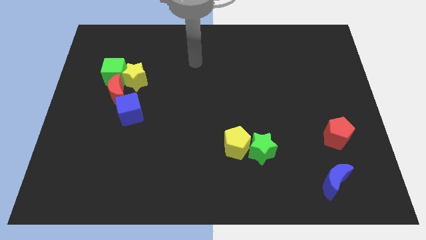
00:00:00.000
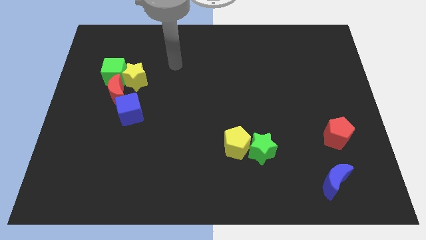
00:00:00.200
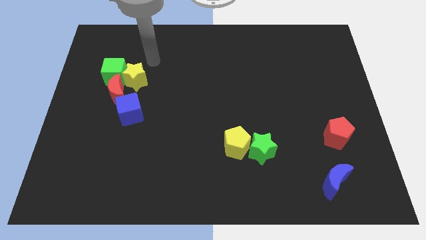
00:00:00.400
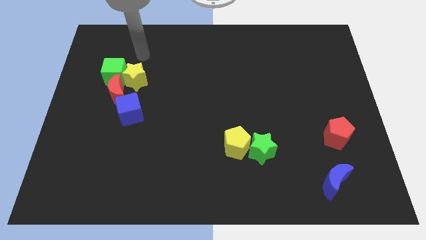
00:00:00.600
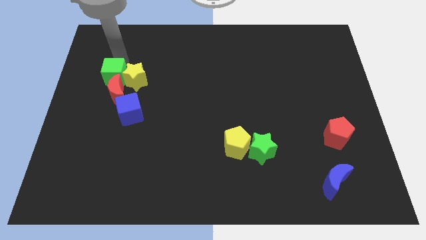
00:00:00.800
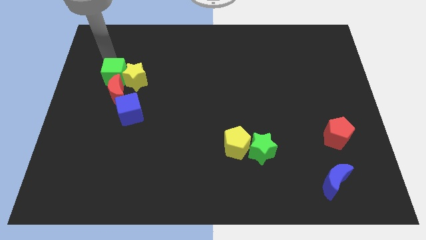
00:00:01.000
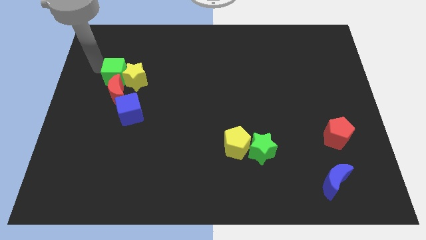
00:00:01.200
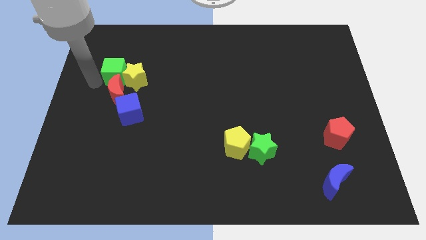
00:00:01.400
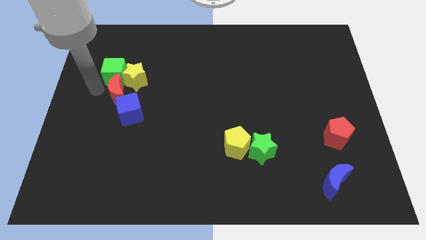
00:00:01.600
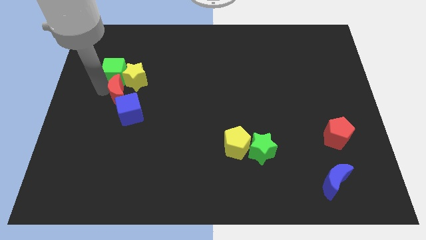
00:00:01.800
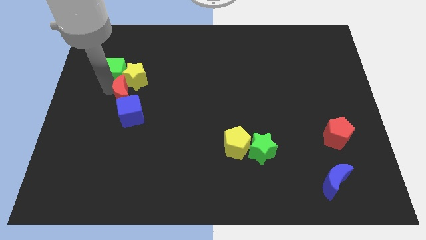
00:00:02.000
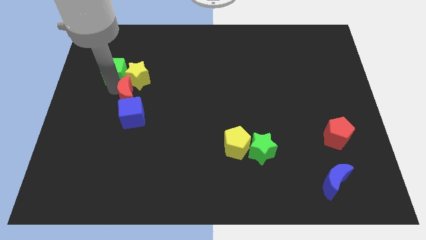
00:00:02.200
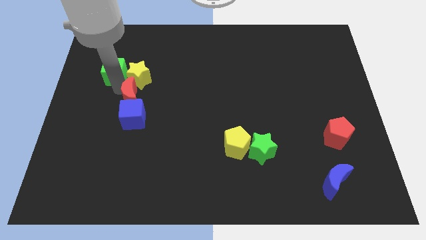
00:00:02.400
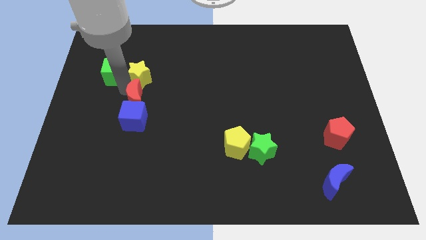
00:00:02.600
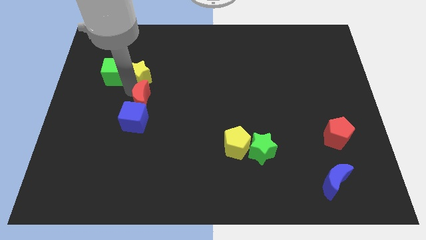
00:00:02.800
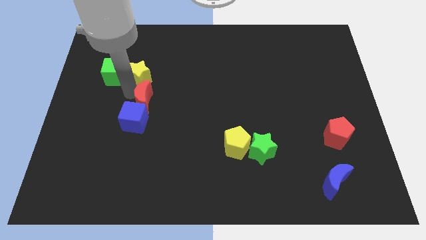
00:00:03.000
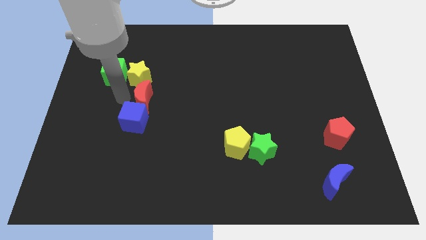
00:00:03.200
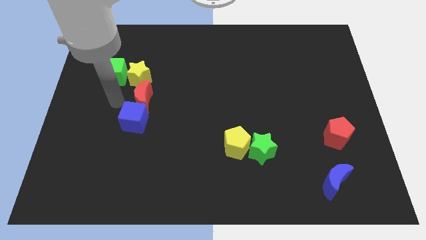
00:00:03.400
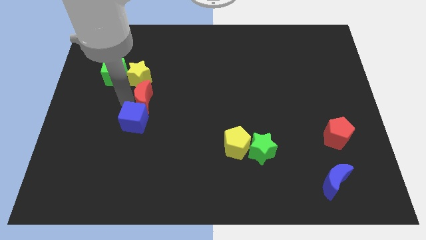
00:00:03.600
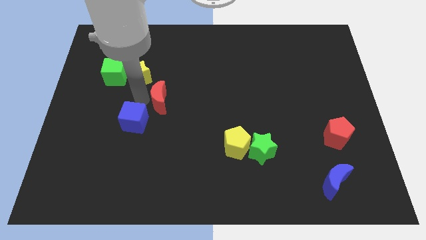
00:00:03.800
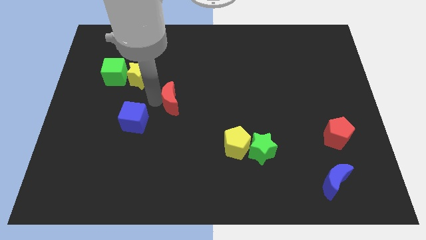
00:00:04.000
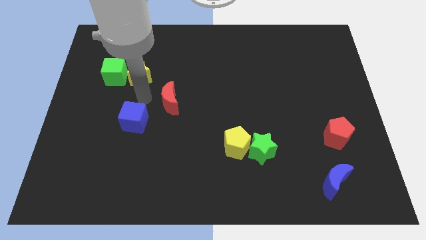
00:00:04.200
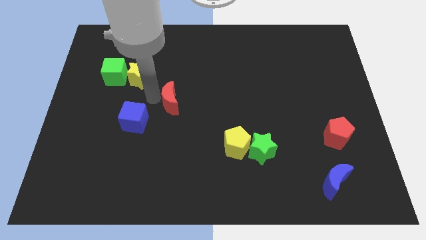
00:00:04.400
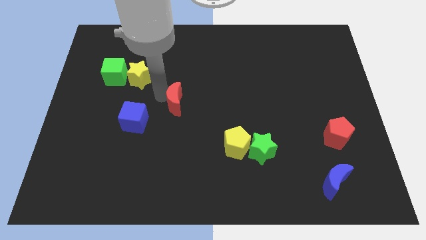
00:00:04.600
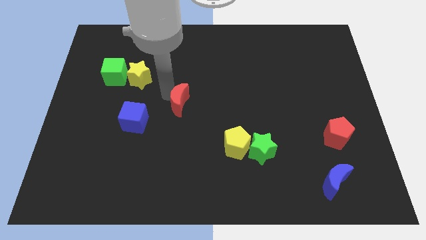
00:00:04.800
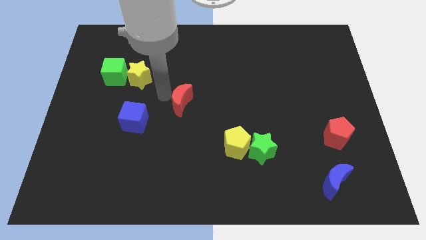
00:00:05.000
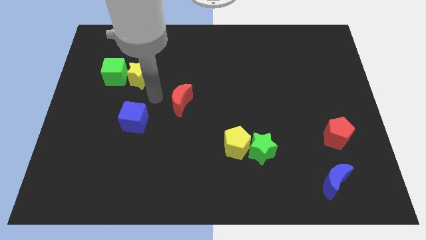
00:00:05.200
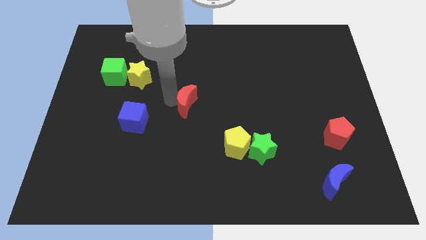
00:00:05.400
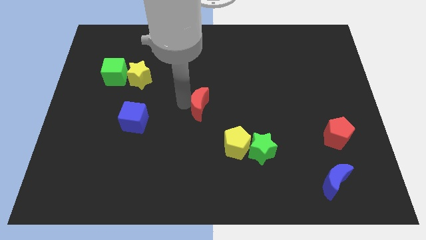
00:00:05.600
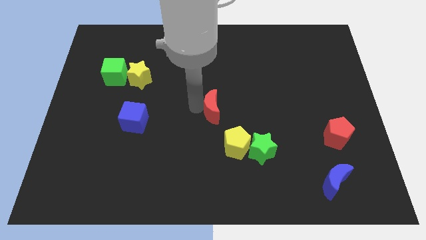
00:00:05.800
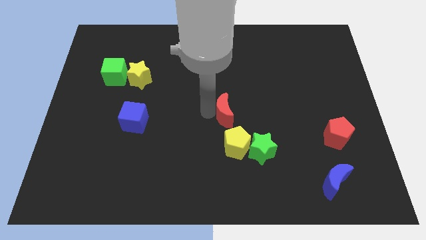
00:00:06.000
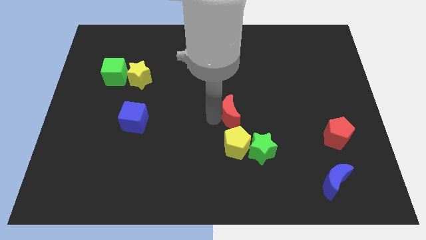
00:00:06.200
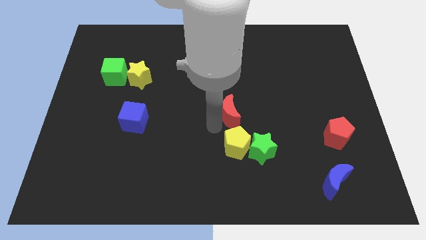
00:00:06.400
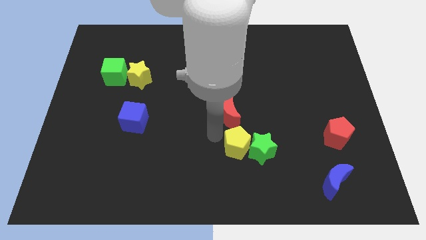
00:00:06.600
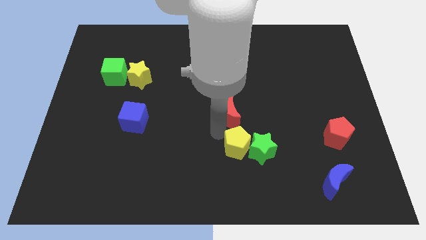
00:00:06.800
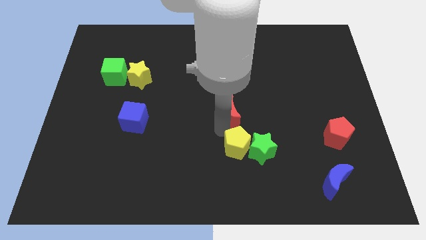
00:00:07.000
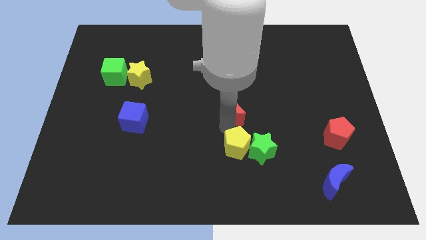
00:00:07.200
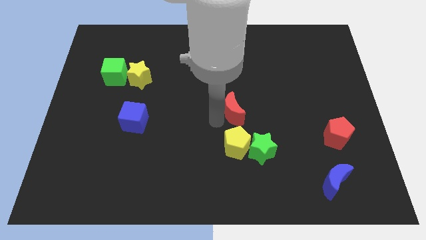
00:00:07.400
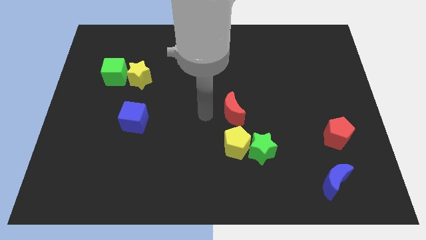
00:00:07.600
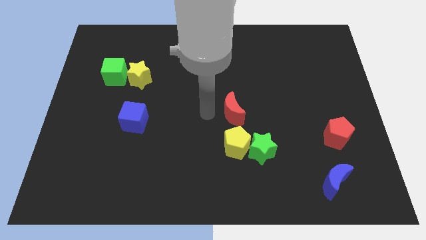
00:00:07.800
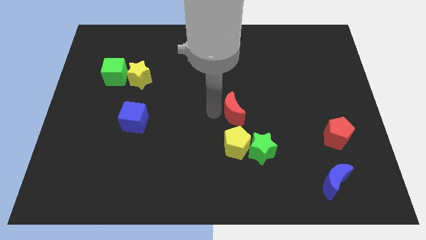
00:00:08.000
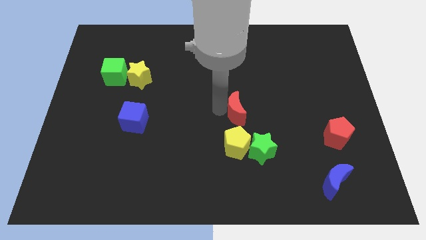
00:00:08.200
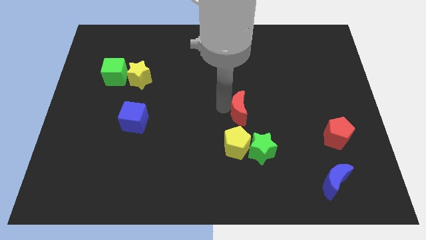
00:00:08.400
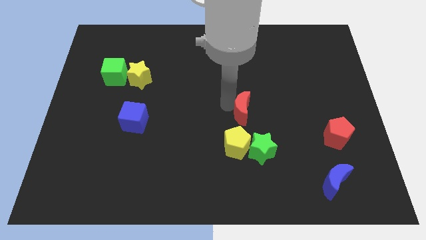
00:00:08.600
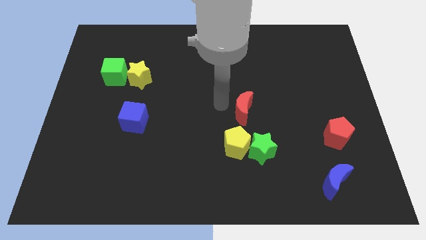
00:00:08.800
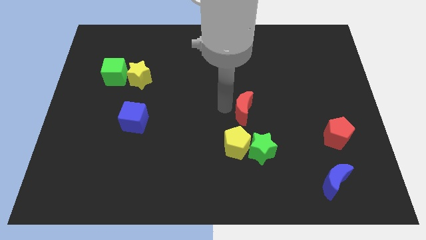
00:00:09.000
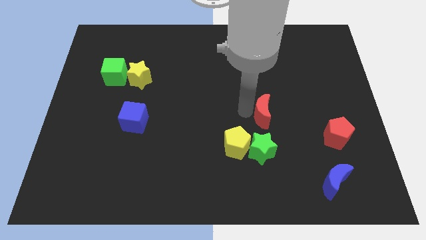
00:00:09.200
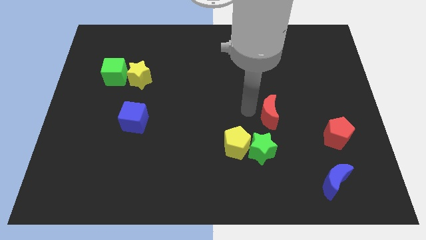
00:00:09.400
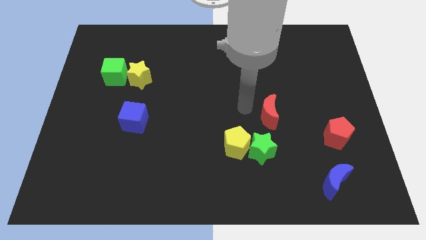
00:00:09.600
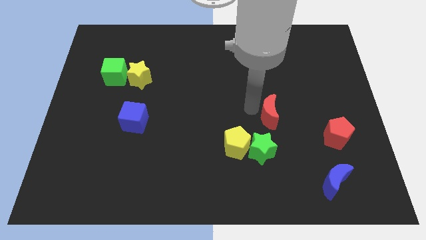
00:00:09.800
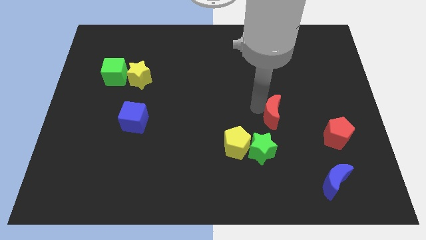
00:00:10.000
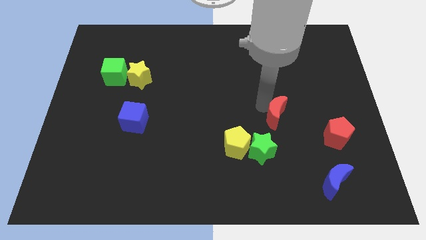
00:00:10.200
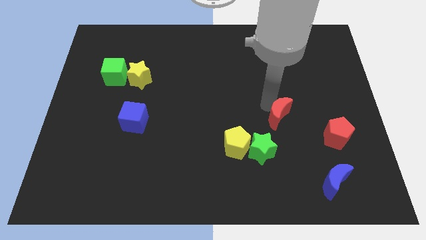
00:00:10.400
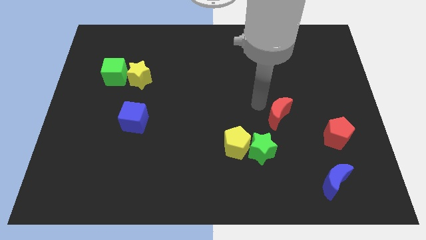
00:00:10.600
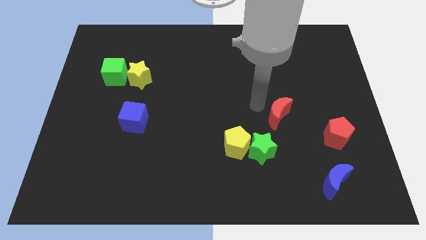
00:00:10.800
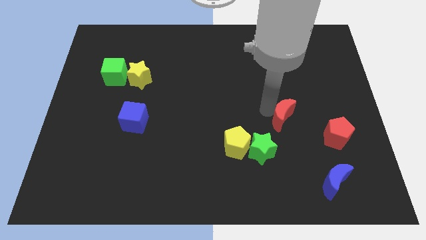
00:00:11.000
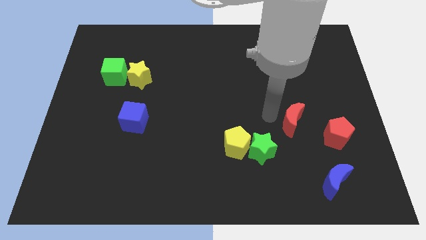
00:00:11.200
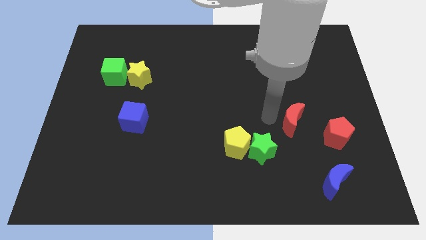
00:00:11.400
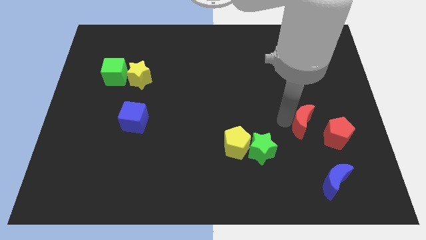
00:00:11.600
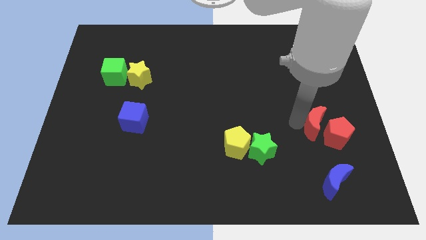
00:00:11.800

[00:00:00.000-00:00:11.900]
move the red moon towards the red pentagon
